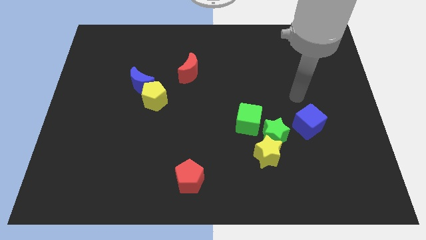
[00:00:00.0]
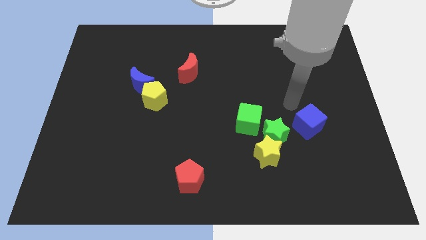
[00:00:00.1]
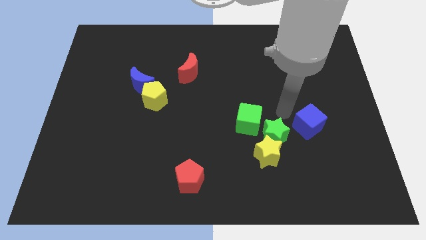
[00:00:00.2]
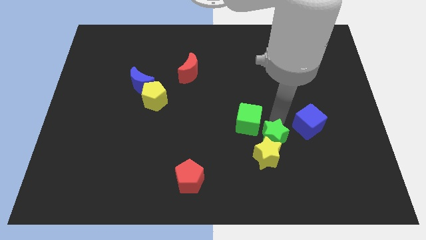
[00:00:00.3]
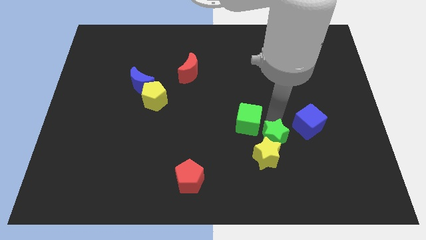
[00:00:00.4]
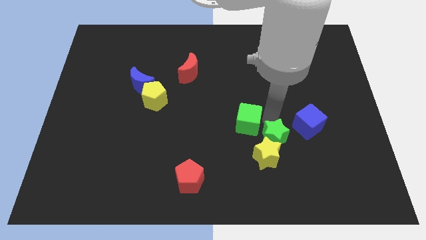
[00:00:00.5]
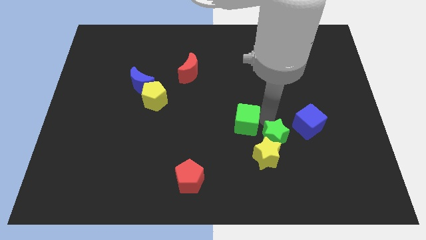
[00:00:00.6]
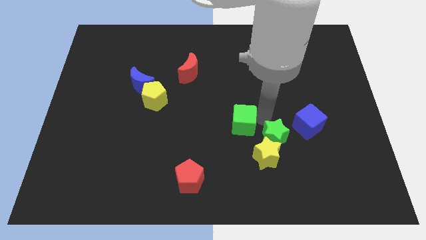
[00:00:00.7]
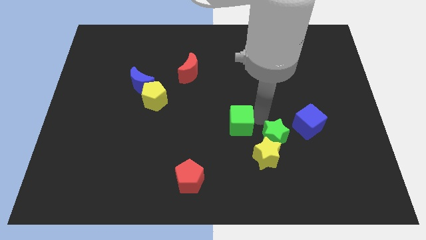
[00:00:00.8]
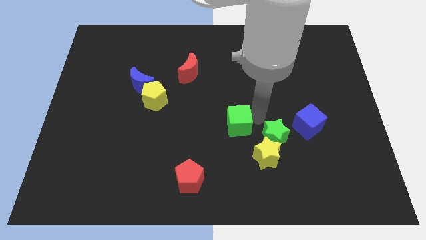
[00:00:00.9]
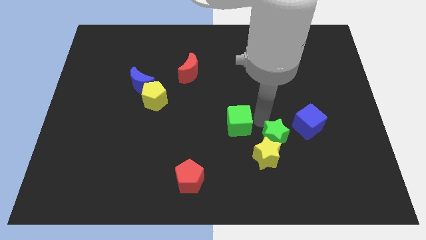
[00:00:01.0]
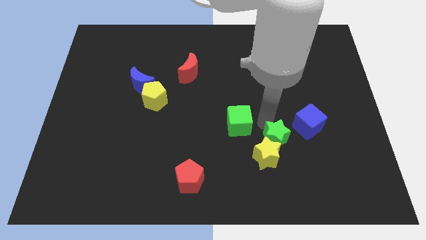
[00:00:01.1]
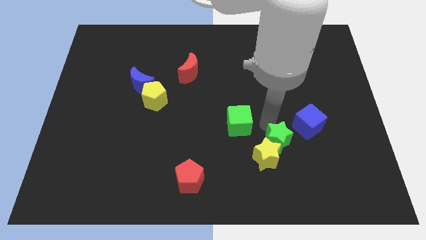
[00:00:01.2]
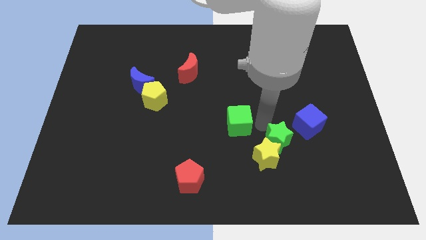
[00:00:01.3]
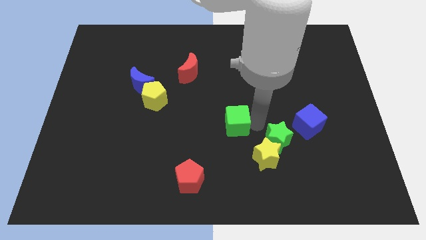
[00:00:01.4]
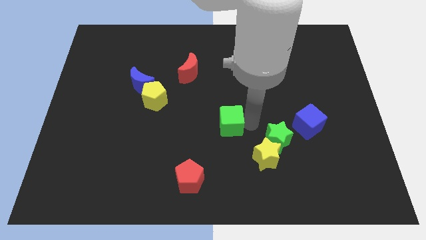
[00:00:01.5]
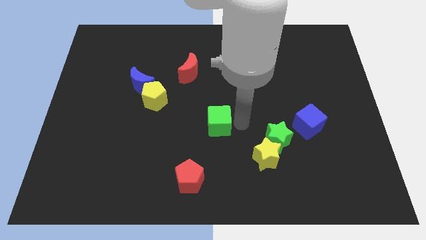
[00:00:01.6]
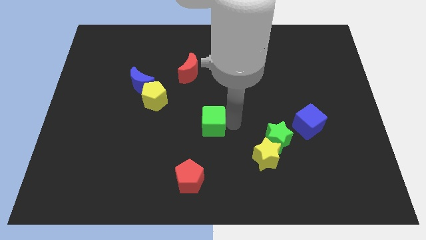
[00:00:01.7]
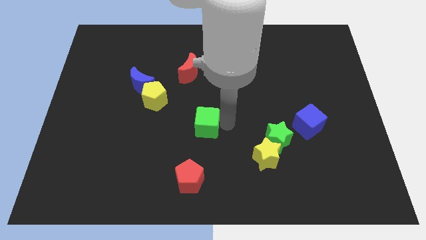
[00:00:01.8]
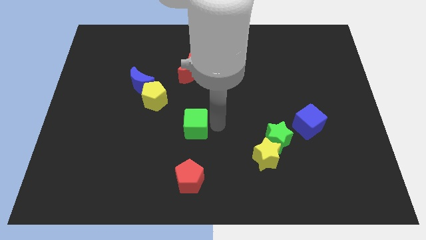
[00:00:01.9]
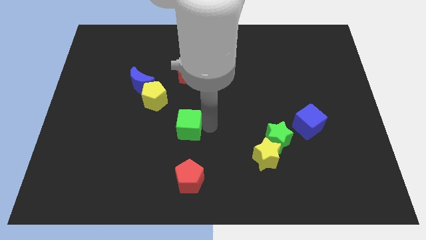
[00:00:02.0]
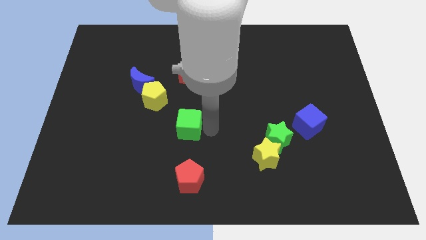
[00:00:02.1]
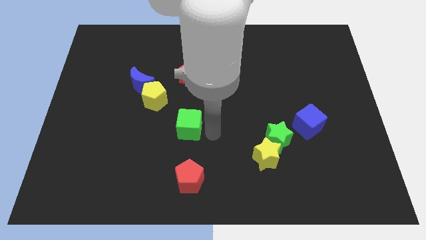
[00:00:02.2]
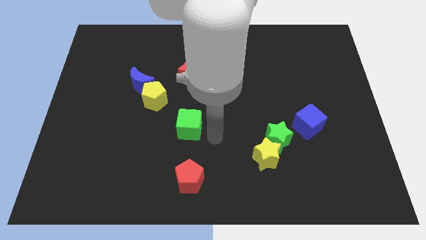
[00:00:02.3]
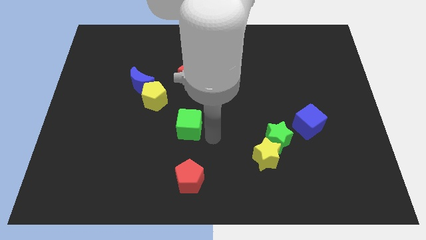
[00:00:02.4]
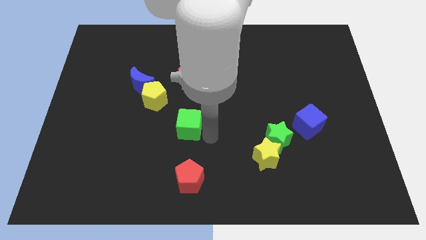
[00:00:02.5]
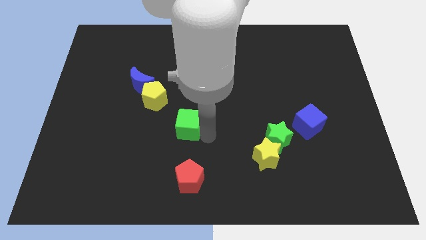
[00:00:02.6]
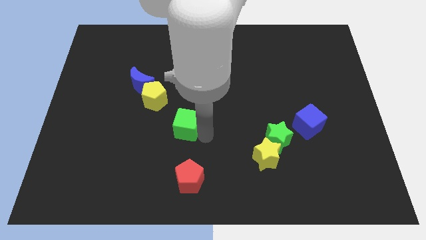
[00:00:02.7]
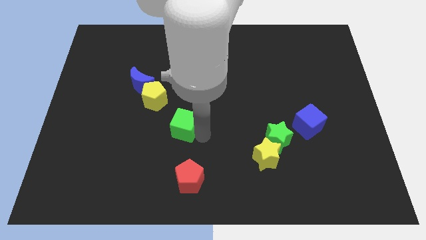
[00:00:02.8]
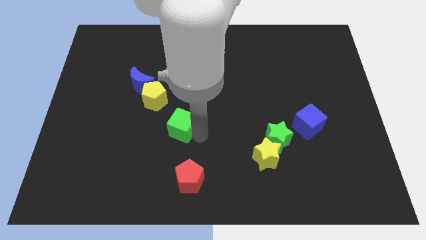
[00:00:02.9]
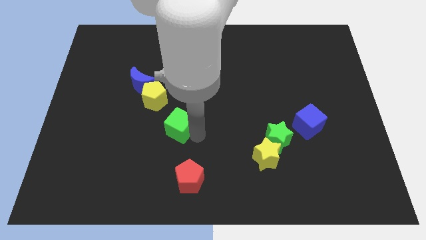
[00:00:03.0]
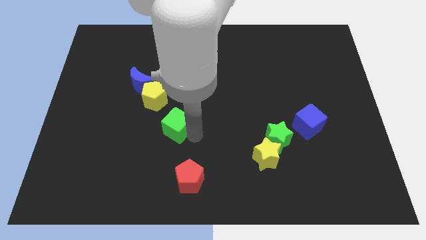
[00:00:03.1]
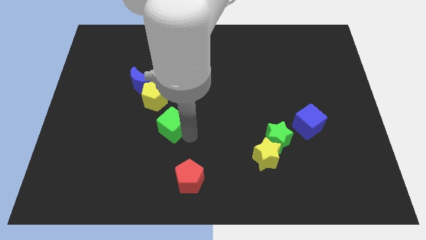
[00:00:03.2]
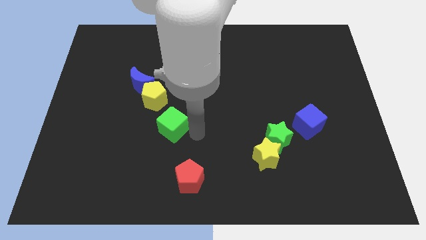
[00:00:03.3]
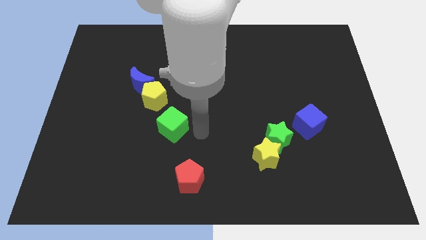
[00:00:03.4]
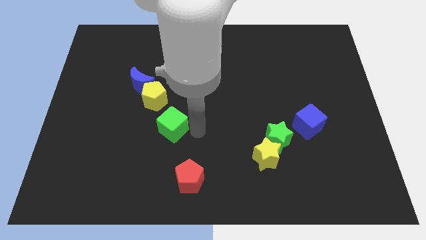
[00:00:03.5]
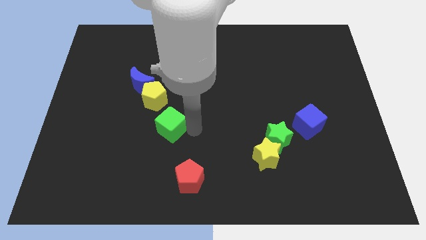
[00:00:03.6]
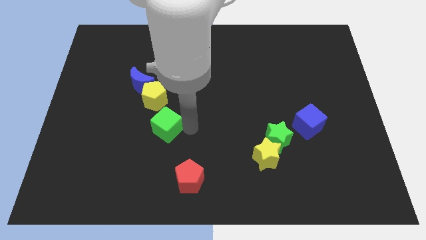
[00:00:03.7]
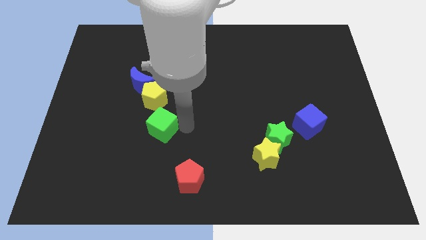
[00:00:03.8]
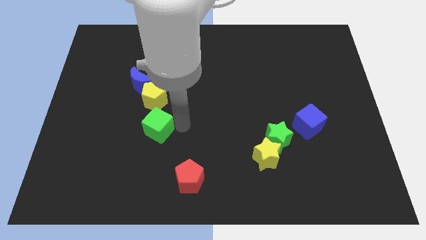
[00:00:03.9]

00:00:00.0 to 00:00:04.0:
slide the green cube left

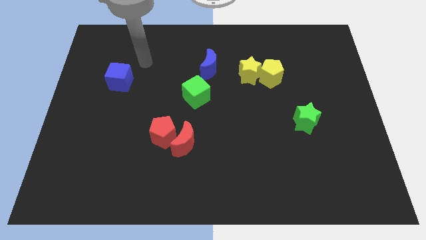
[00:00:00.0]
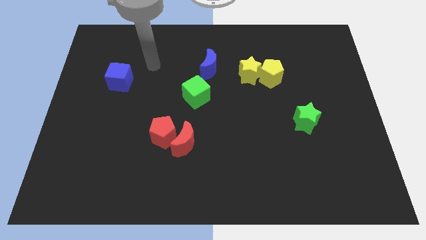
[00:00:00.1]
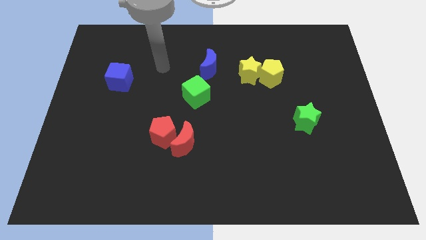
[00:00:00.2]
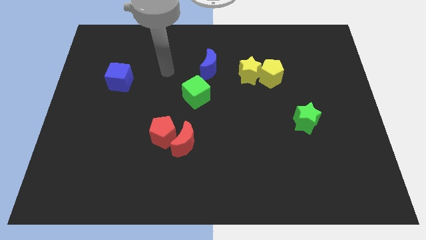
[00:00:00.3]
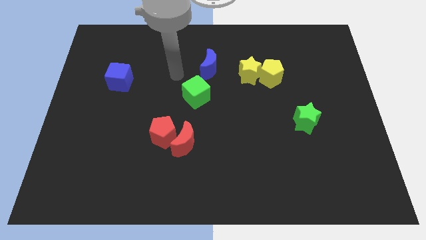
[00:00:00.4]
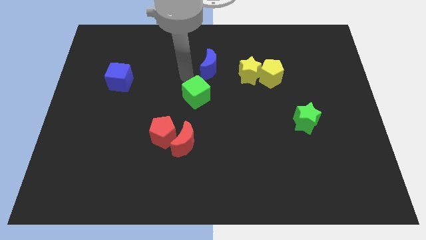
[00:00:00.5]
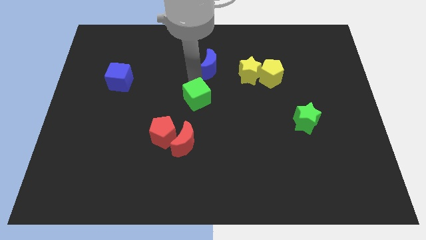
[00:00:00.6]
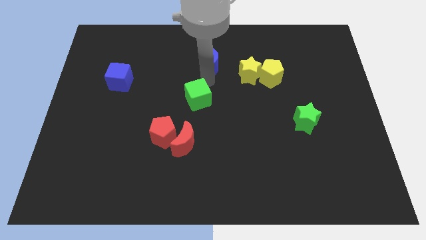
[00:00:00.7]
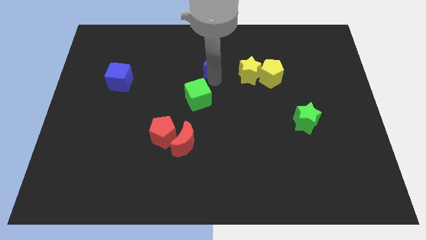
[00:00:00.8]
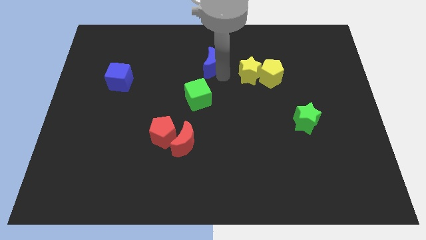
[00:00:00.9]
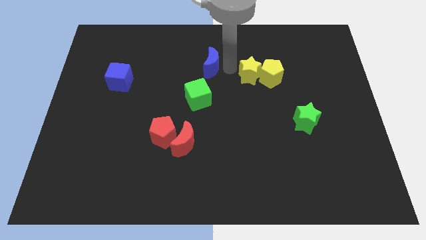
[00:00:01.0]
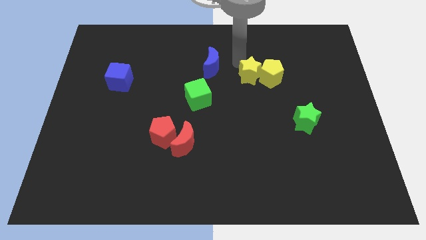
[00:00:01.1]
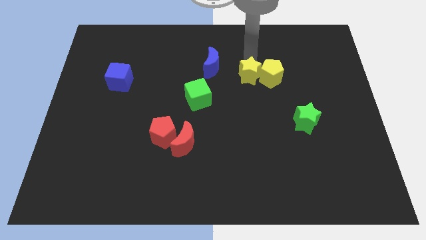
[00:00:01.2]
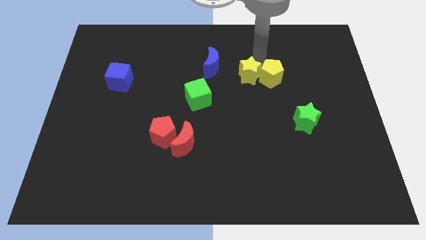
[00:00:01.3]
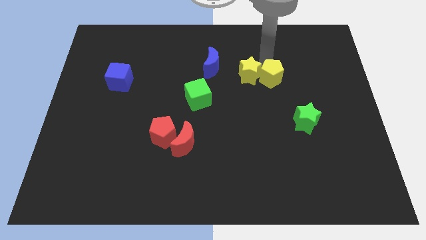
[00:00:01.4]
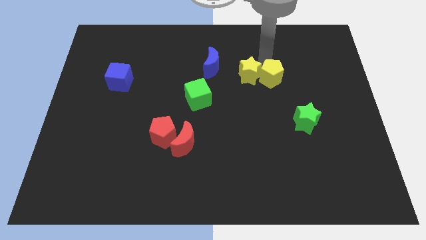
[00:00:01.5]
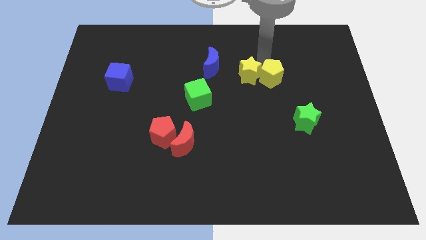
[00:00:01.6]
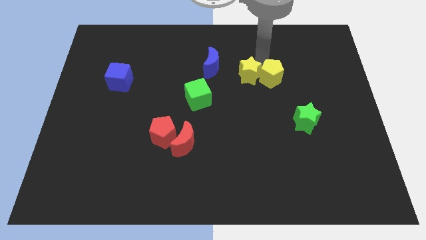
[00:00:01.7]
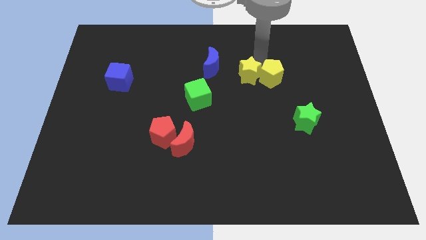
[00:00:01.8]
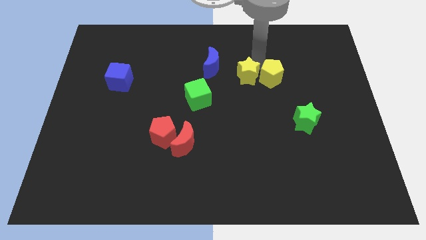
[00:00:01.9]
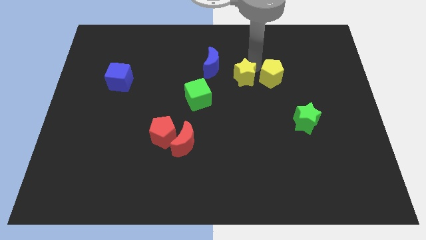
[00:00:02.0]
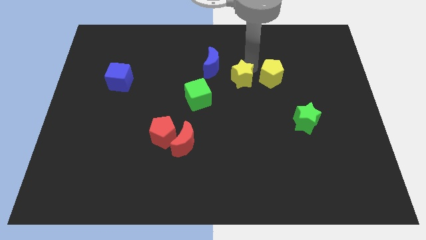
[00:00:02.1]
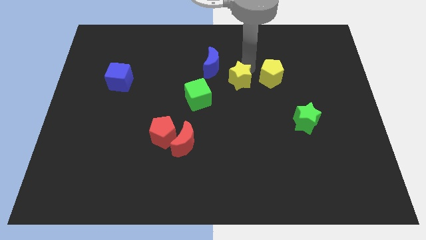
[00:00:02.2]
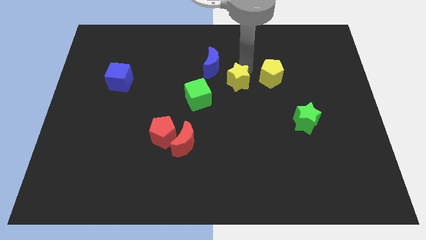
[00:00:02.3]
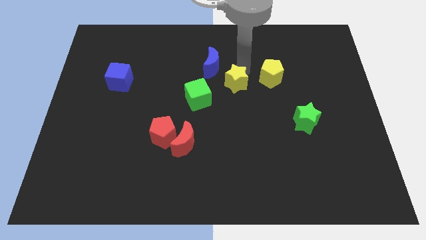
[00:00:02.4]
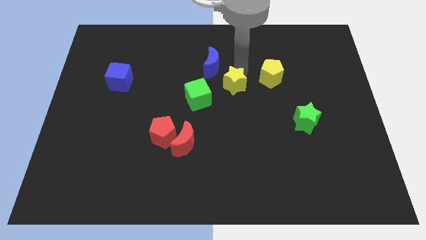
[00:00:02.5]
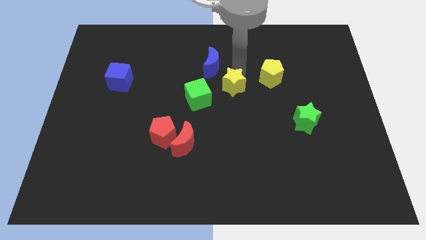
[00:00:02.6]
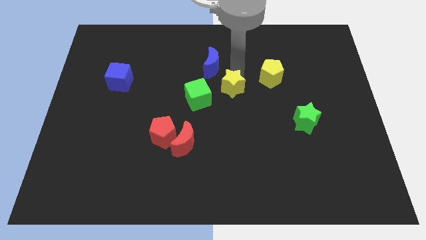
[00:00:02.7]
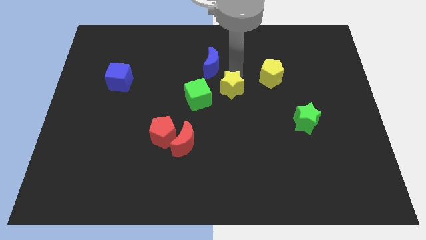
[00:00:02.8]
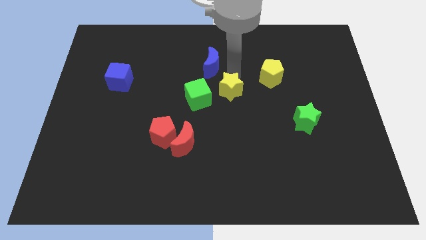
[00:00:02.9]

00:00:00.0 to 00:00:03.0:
slightly slide the yellow star downwards and left

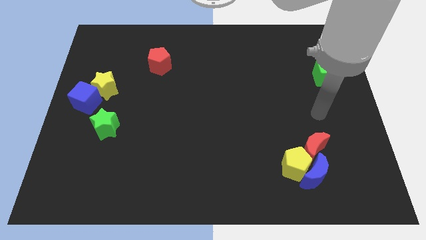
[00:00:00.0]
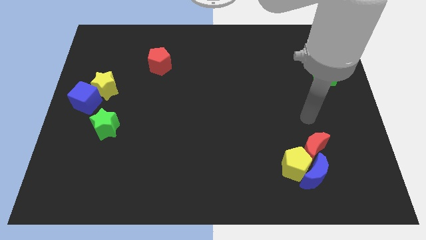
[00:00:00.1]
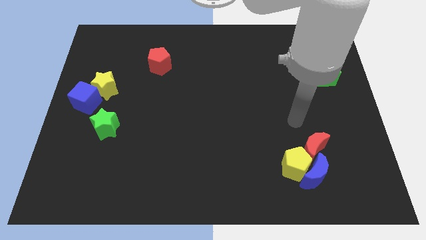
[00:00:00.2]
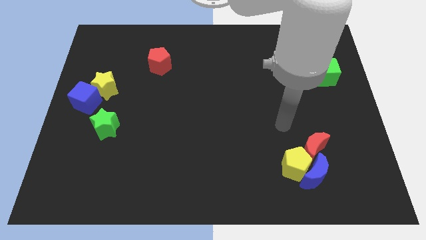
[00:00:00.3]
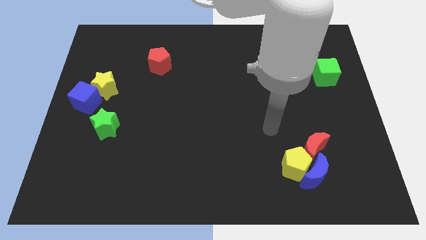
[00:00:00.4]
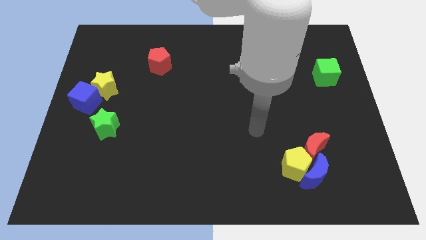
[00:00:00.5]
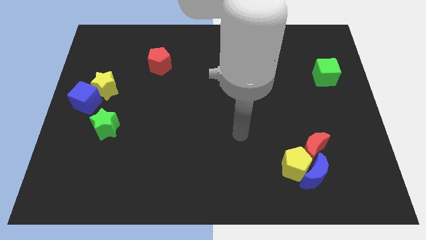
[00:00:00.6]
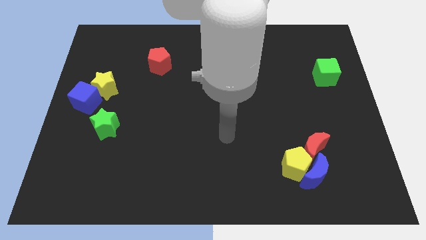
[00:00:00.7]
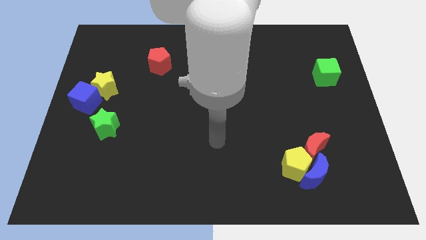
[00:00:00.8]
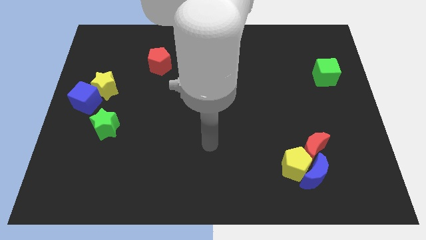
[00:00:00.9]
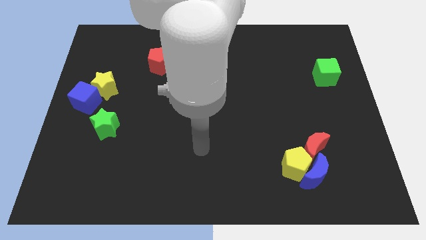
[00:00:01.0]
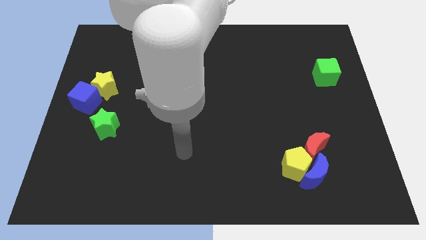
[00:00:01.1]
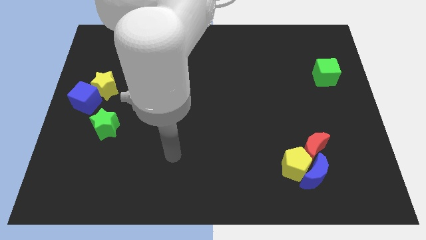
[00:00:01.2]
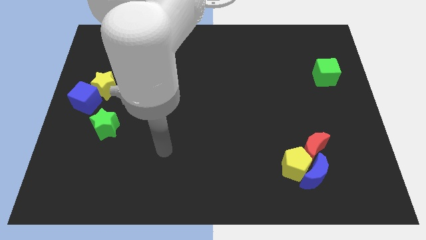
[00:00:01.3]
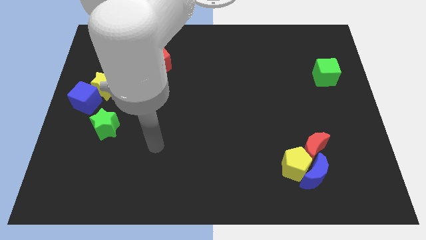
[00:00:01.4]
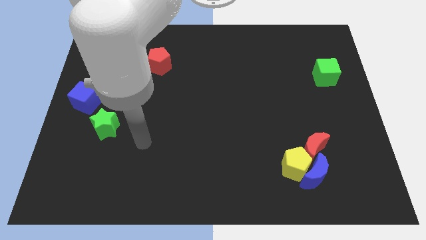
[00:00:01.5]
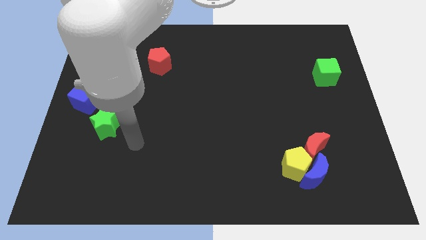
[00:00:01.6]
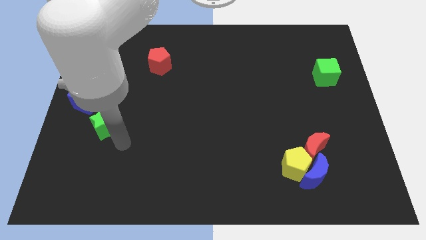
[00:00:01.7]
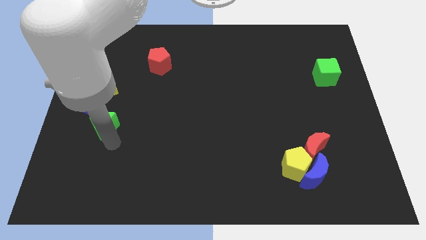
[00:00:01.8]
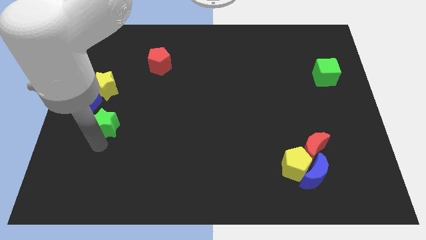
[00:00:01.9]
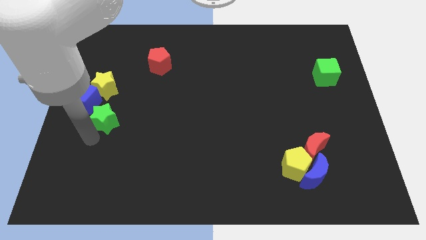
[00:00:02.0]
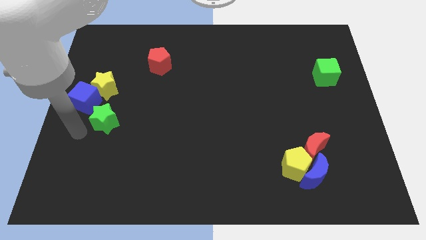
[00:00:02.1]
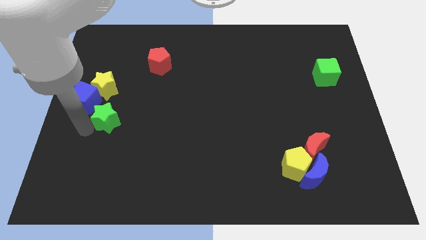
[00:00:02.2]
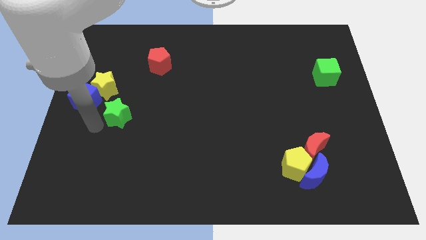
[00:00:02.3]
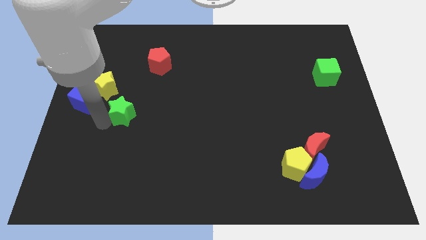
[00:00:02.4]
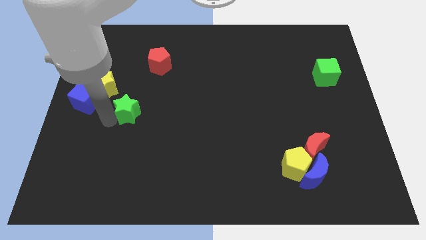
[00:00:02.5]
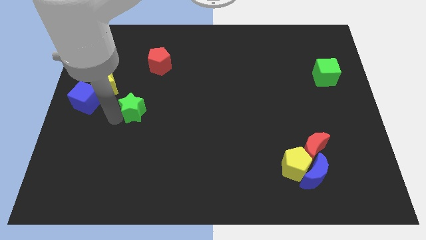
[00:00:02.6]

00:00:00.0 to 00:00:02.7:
move the green star diagonally up and to the right slightly
